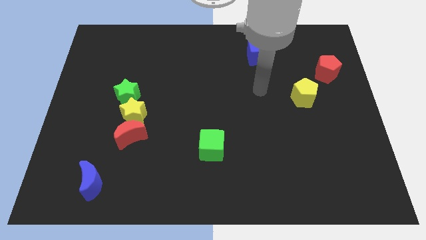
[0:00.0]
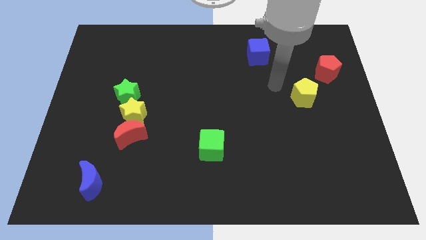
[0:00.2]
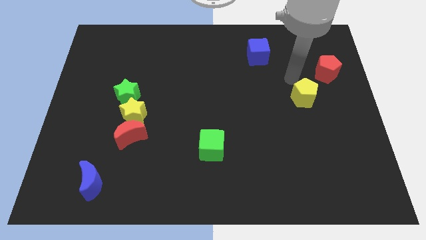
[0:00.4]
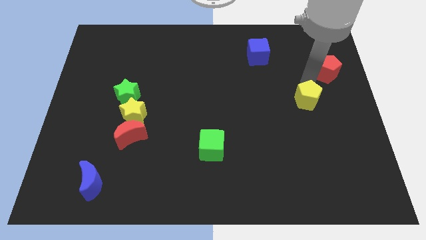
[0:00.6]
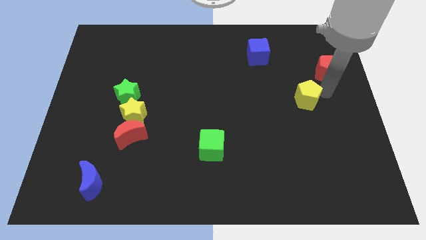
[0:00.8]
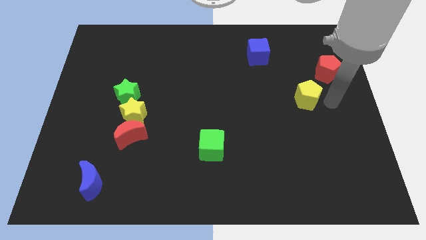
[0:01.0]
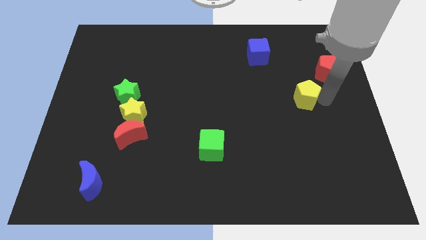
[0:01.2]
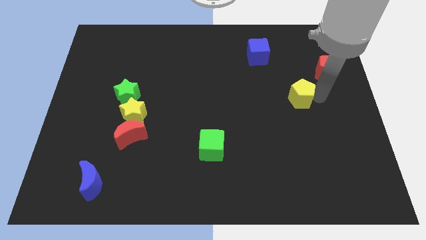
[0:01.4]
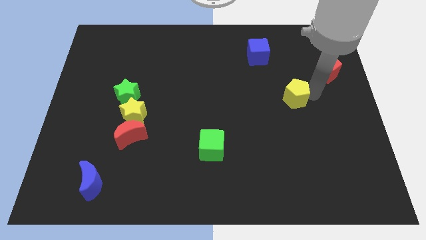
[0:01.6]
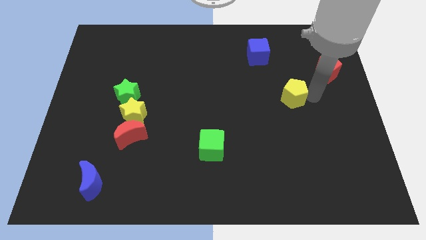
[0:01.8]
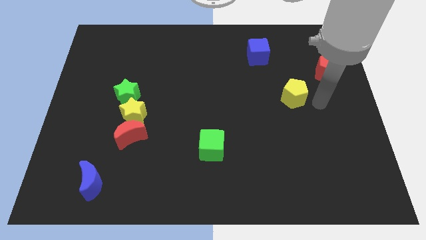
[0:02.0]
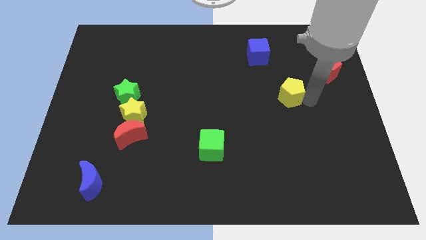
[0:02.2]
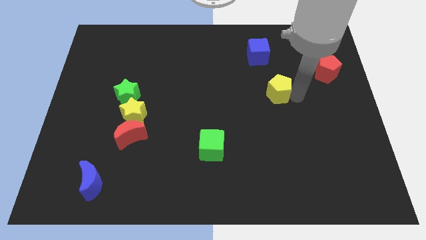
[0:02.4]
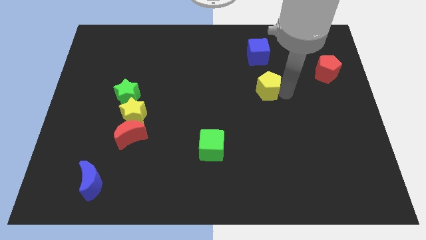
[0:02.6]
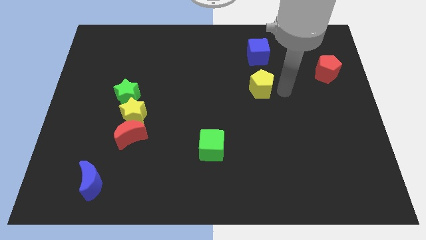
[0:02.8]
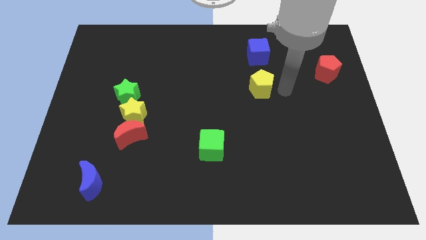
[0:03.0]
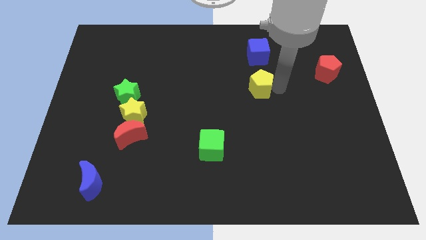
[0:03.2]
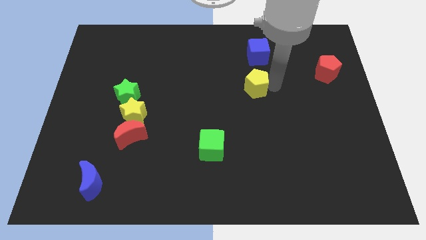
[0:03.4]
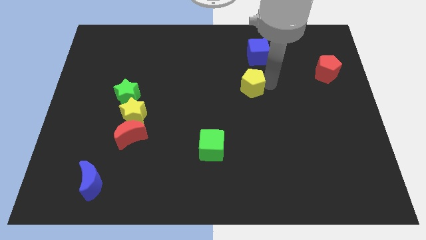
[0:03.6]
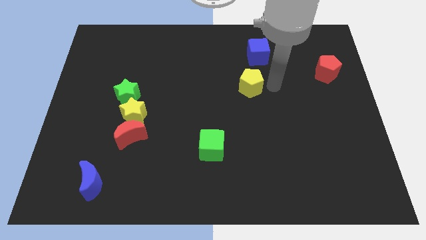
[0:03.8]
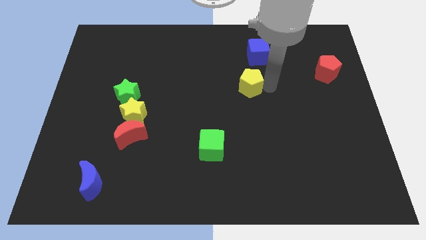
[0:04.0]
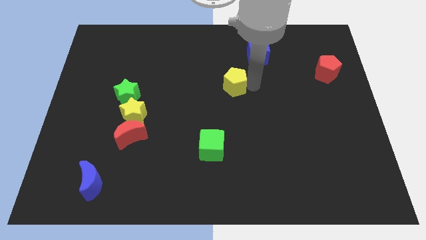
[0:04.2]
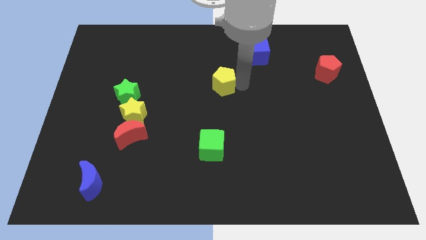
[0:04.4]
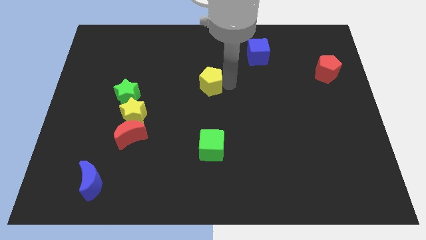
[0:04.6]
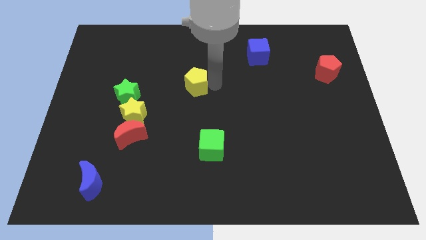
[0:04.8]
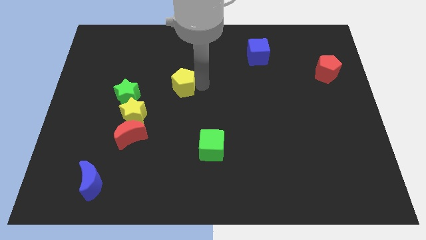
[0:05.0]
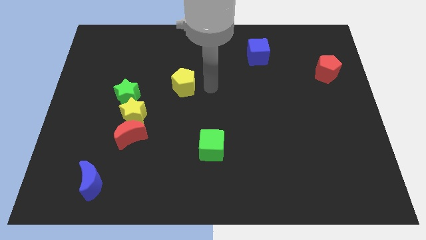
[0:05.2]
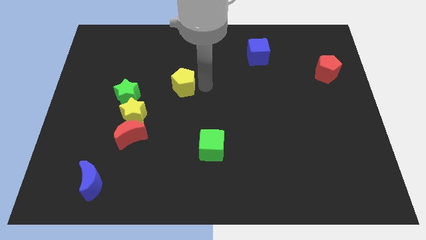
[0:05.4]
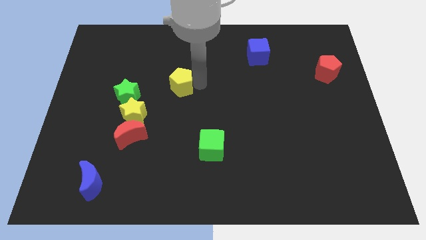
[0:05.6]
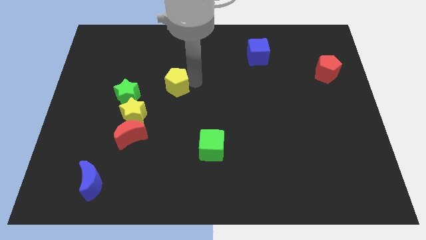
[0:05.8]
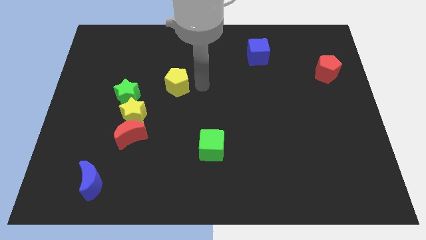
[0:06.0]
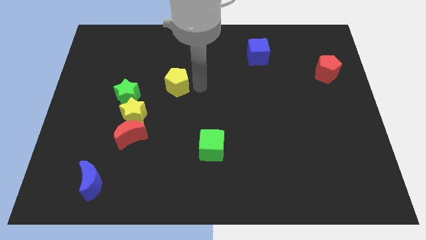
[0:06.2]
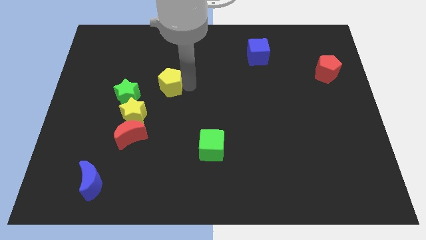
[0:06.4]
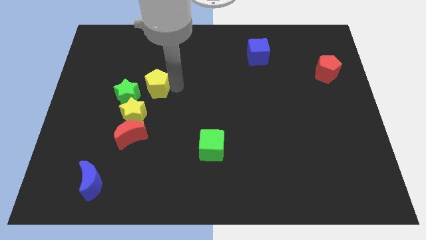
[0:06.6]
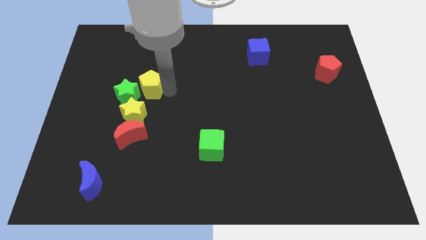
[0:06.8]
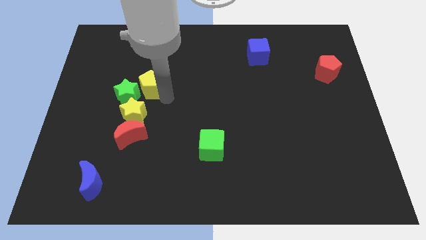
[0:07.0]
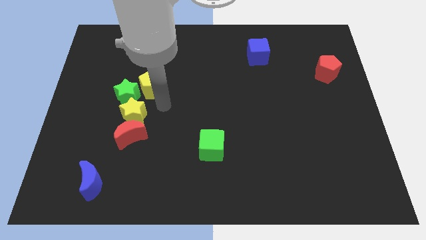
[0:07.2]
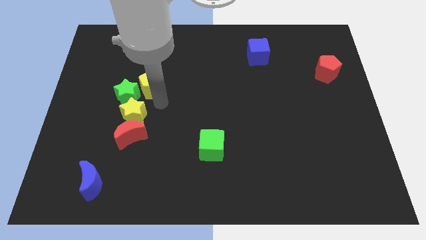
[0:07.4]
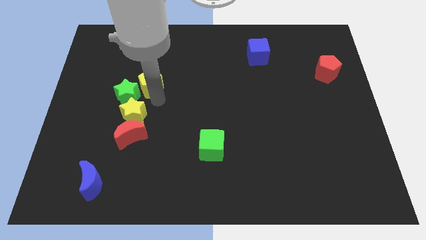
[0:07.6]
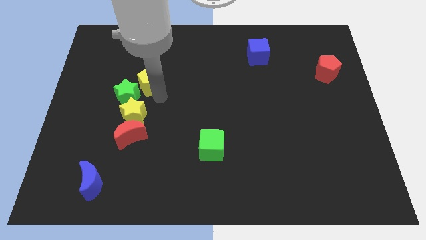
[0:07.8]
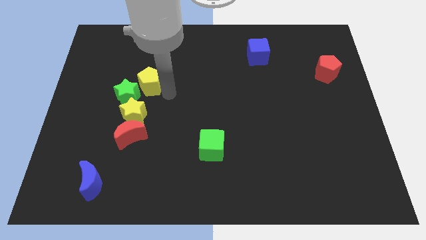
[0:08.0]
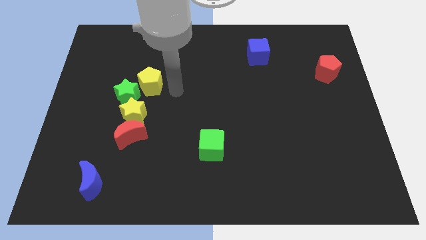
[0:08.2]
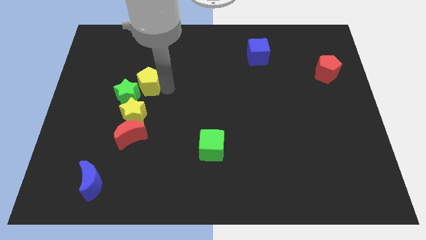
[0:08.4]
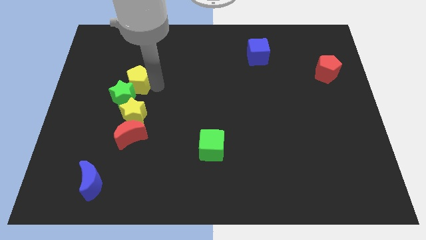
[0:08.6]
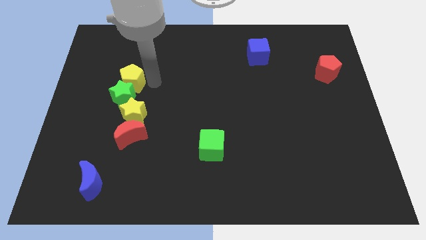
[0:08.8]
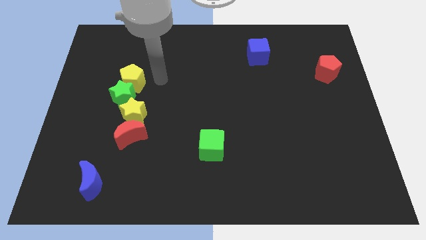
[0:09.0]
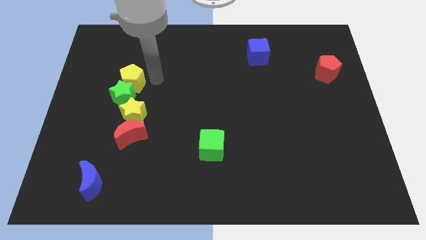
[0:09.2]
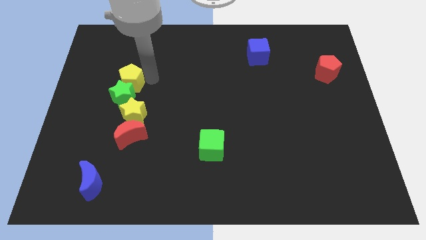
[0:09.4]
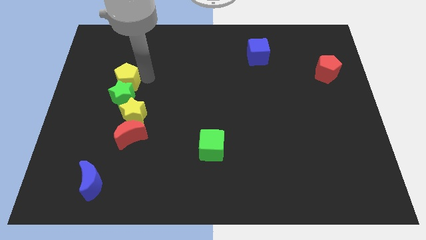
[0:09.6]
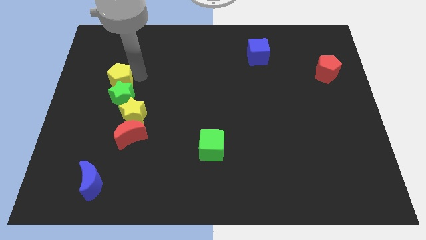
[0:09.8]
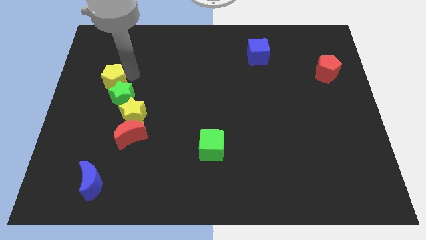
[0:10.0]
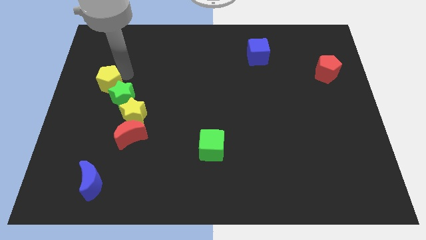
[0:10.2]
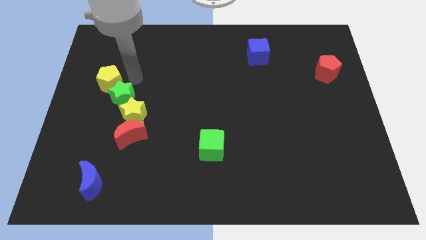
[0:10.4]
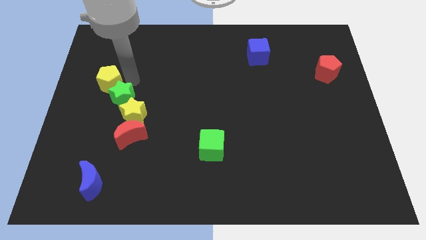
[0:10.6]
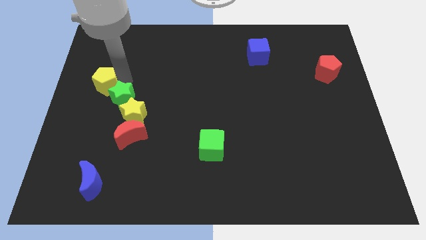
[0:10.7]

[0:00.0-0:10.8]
slide the yellow pentagon to the center left

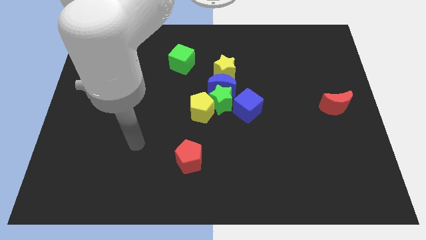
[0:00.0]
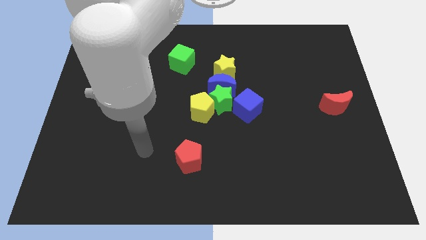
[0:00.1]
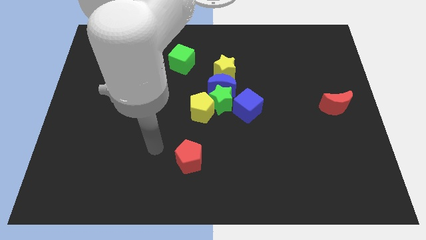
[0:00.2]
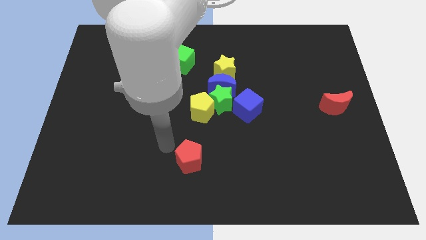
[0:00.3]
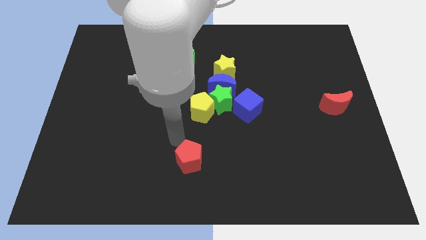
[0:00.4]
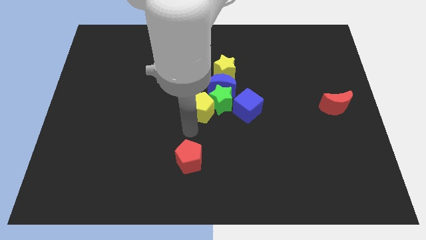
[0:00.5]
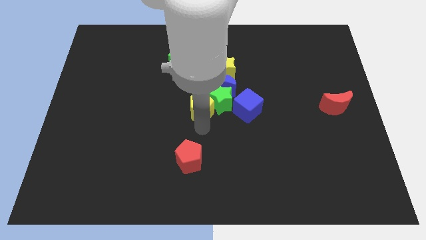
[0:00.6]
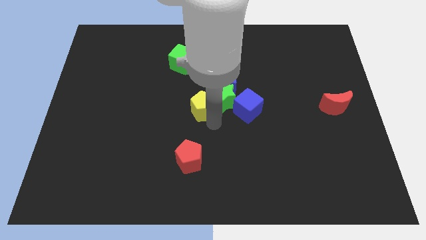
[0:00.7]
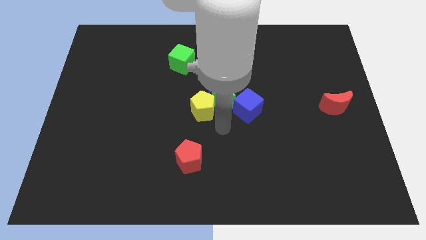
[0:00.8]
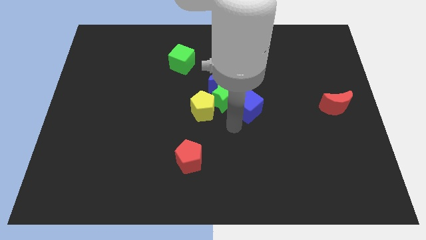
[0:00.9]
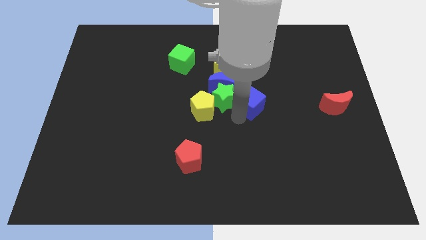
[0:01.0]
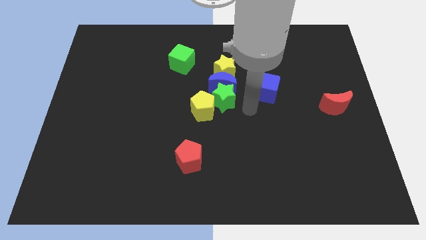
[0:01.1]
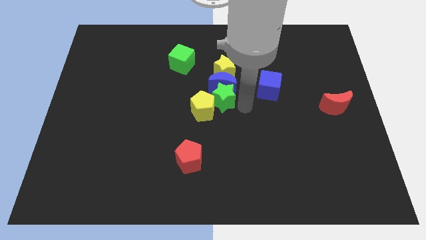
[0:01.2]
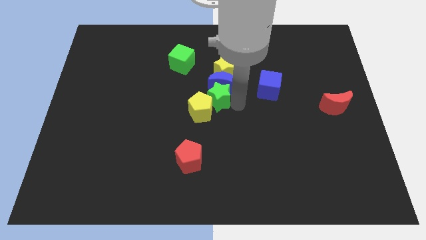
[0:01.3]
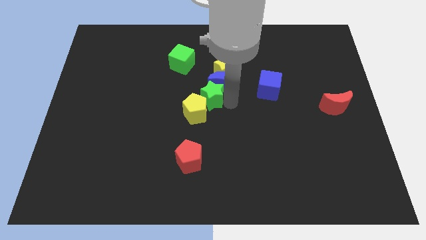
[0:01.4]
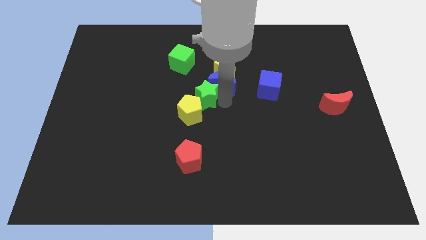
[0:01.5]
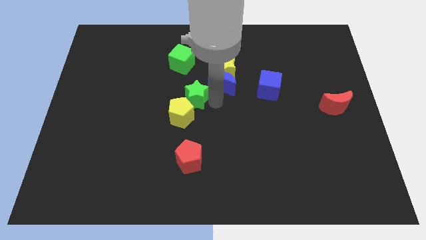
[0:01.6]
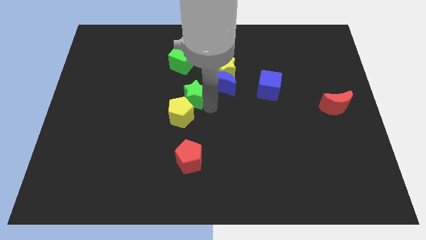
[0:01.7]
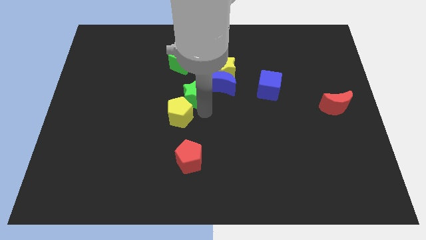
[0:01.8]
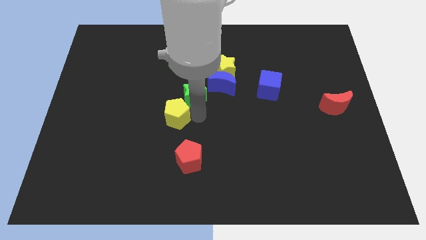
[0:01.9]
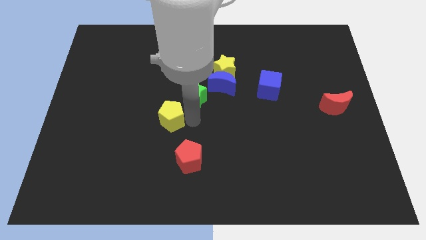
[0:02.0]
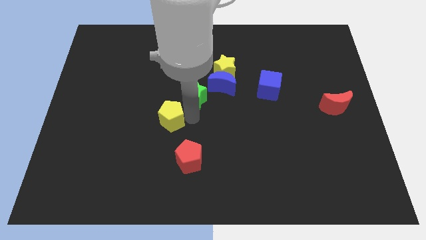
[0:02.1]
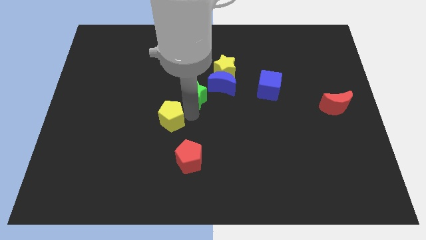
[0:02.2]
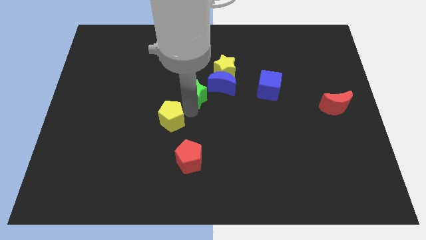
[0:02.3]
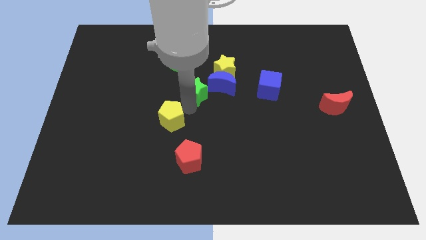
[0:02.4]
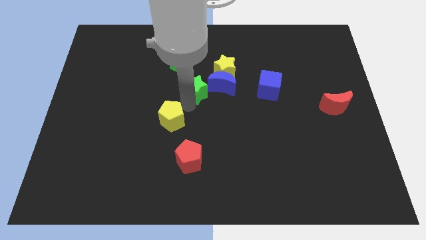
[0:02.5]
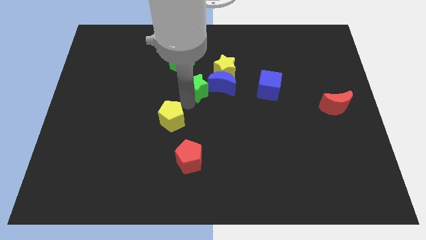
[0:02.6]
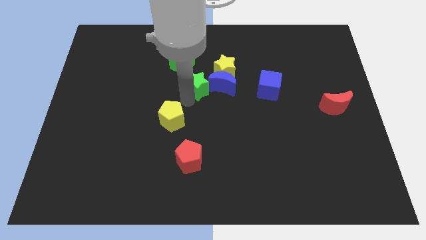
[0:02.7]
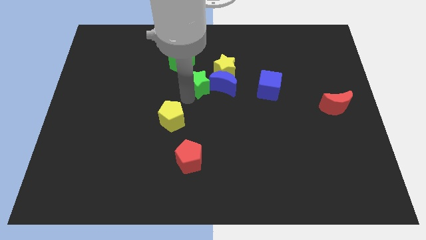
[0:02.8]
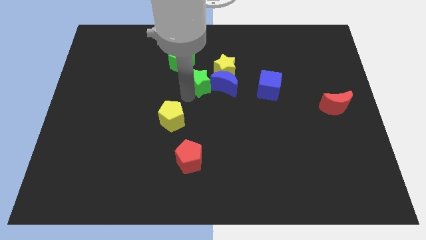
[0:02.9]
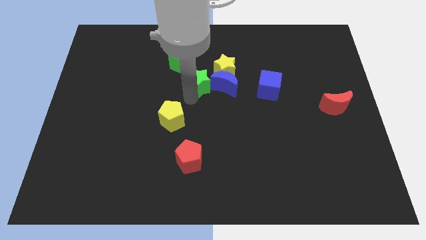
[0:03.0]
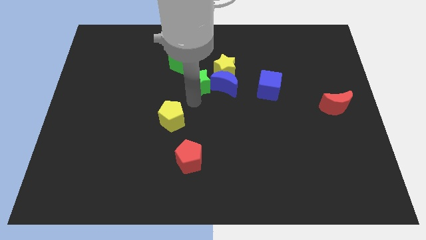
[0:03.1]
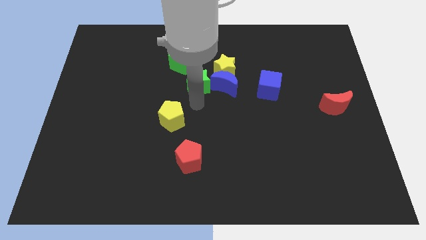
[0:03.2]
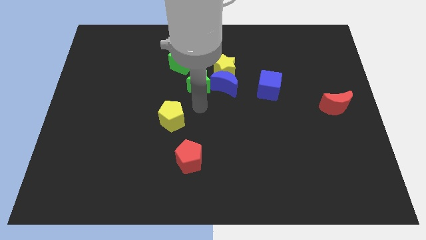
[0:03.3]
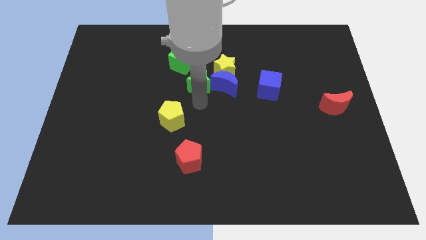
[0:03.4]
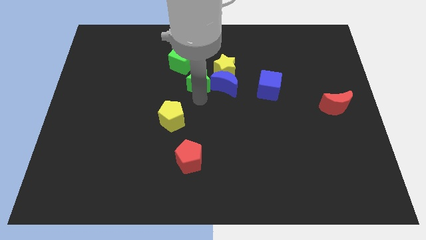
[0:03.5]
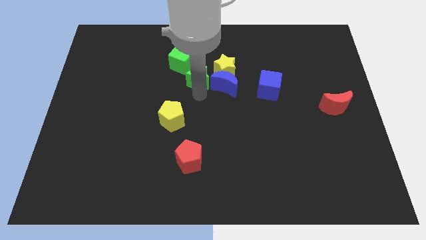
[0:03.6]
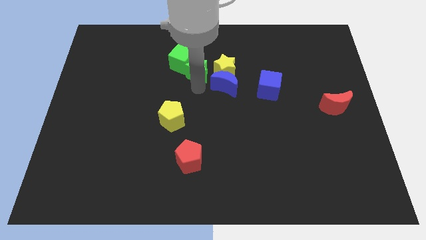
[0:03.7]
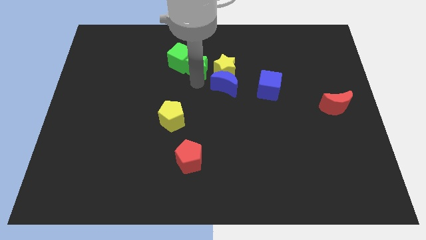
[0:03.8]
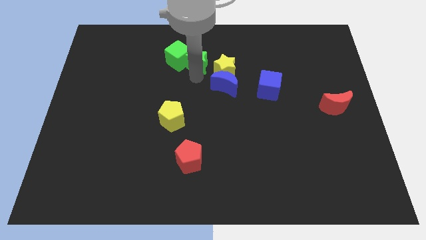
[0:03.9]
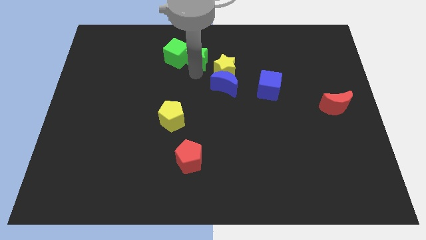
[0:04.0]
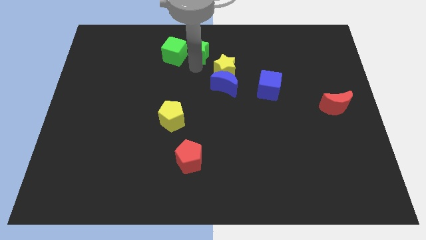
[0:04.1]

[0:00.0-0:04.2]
push the green star to the towards your base
